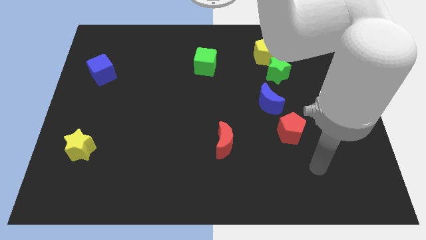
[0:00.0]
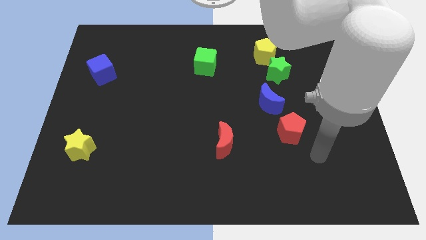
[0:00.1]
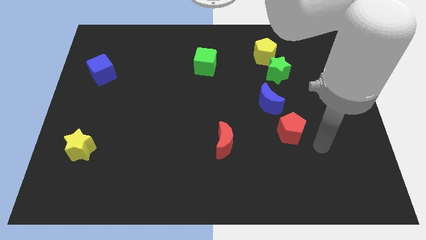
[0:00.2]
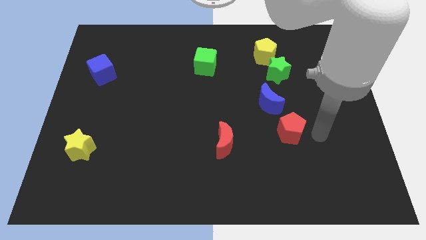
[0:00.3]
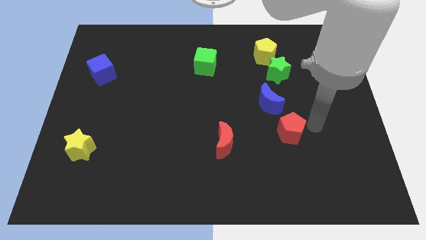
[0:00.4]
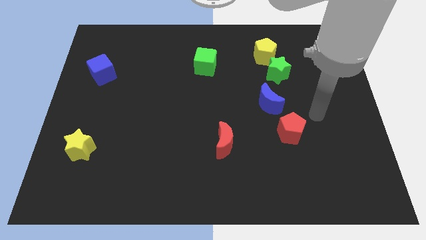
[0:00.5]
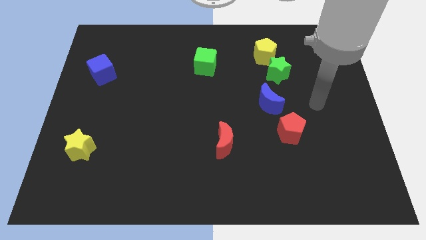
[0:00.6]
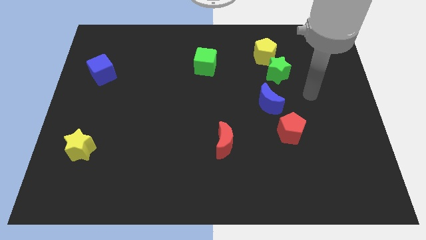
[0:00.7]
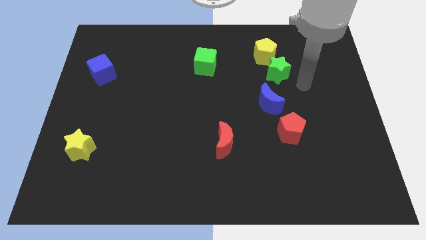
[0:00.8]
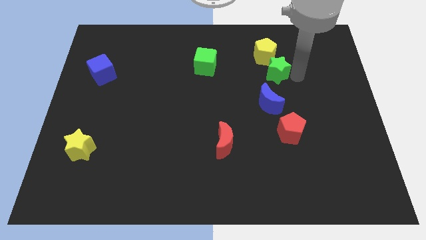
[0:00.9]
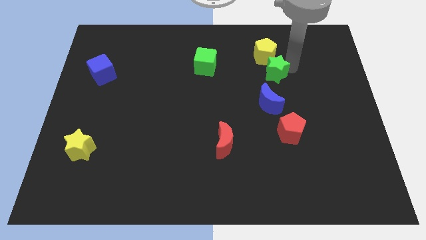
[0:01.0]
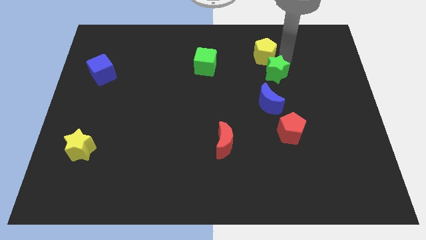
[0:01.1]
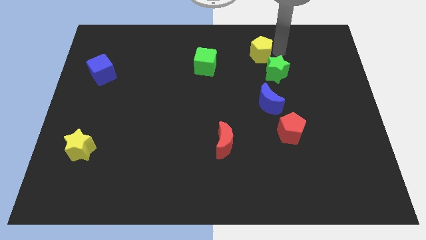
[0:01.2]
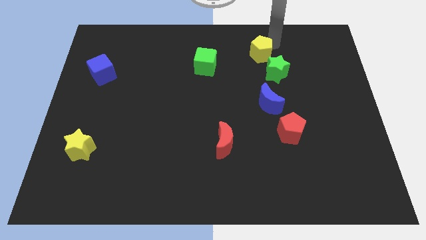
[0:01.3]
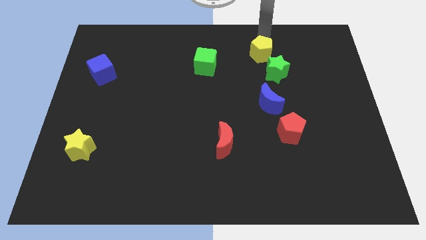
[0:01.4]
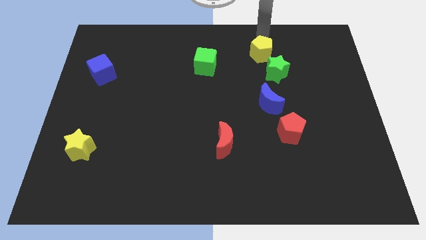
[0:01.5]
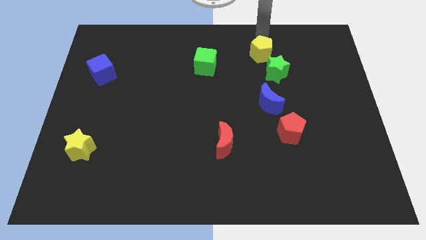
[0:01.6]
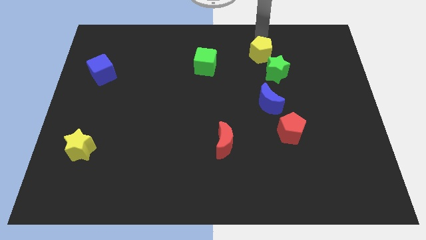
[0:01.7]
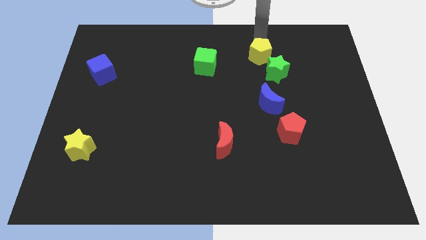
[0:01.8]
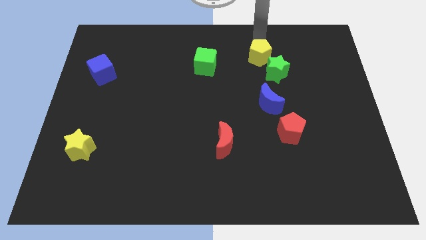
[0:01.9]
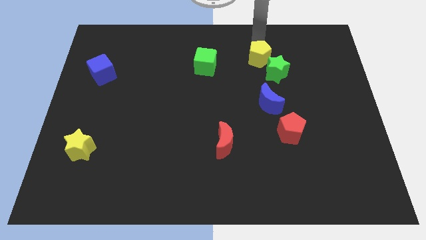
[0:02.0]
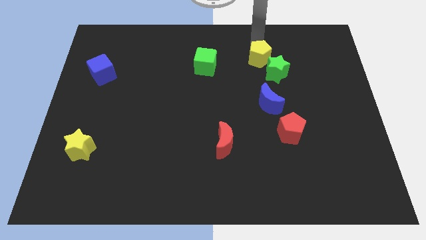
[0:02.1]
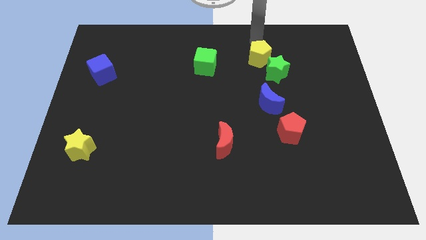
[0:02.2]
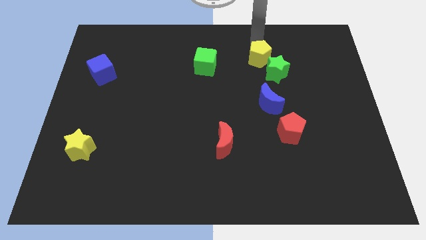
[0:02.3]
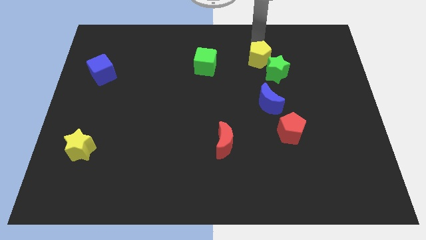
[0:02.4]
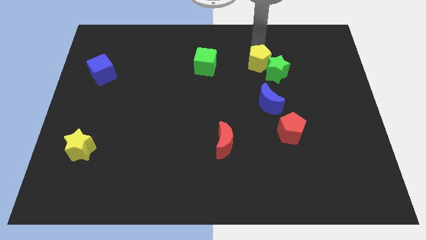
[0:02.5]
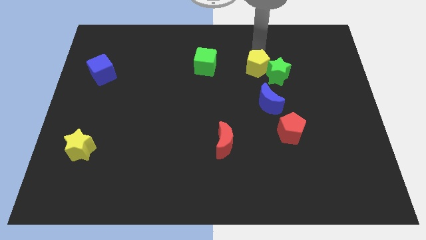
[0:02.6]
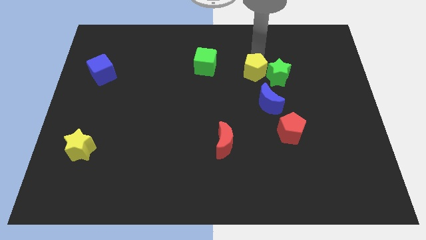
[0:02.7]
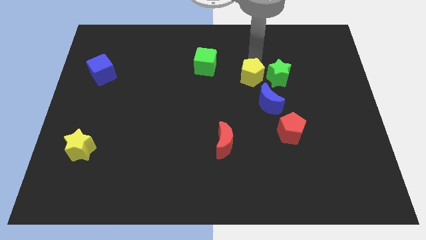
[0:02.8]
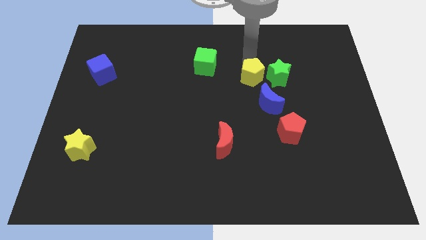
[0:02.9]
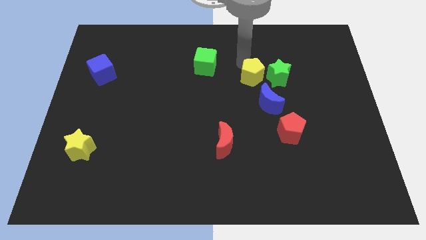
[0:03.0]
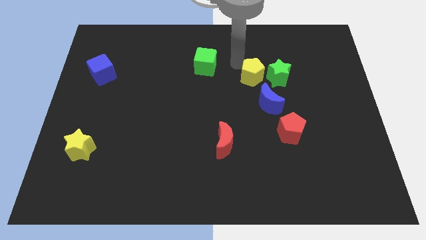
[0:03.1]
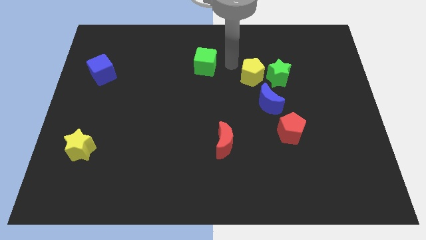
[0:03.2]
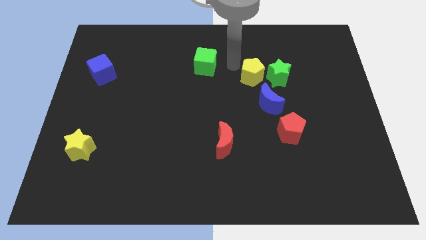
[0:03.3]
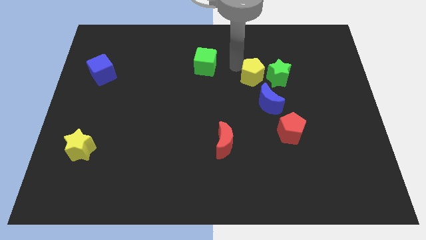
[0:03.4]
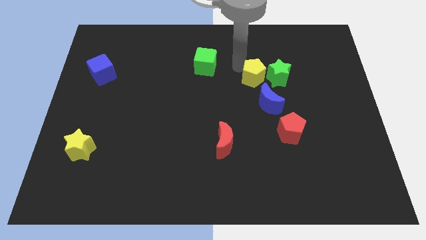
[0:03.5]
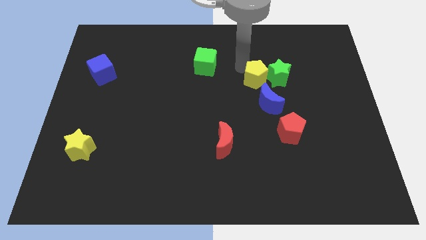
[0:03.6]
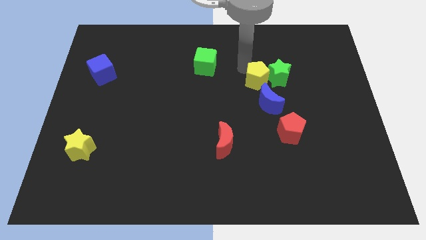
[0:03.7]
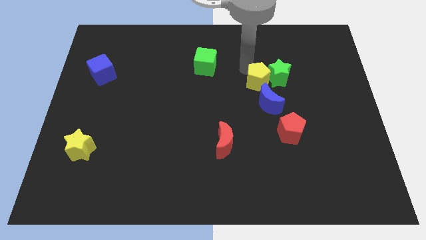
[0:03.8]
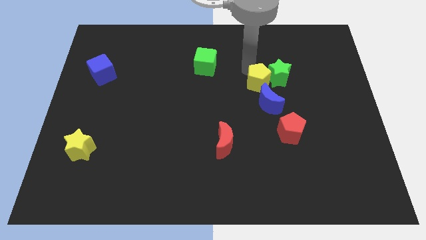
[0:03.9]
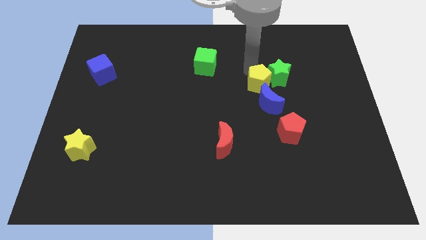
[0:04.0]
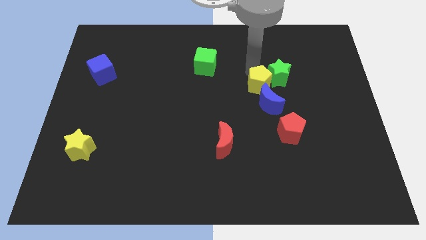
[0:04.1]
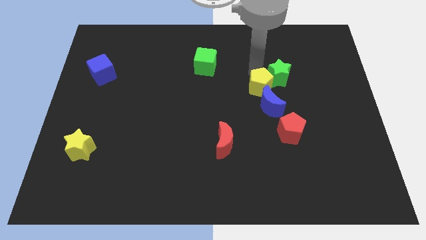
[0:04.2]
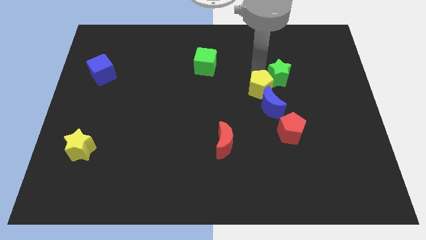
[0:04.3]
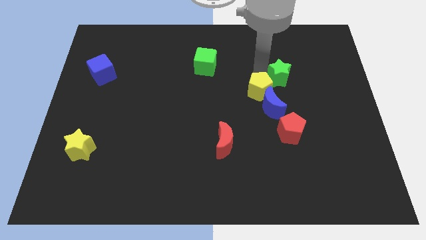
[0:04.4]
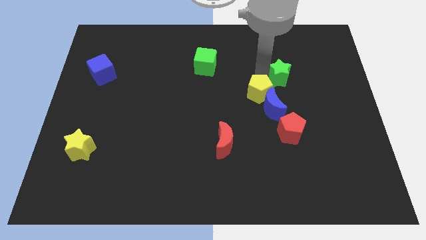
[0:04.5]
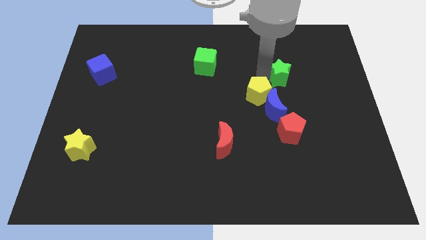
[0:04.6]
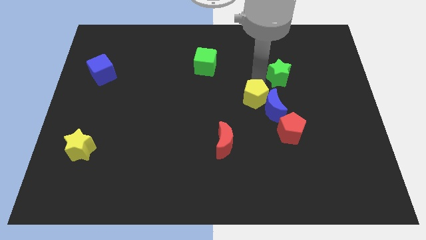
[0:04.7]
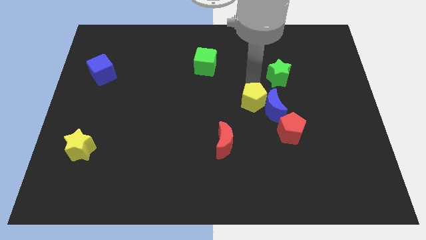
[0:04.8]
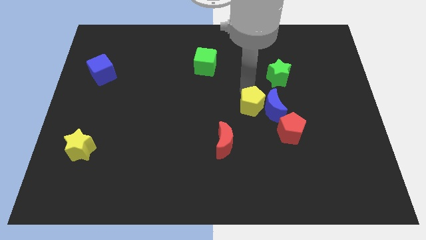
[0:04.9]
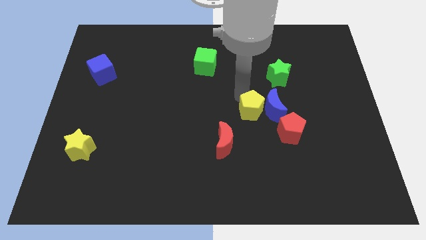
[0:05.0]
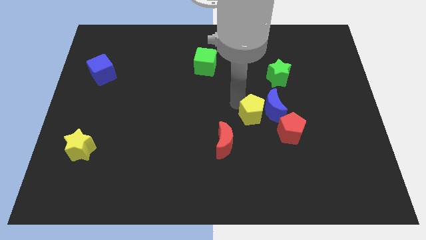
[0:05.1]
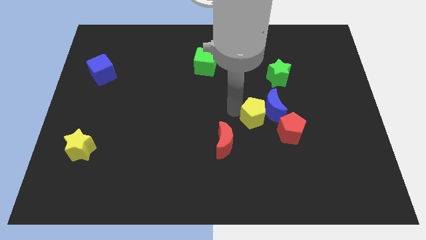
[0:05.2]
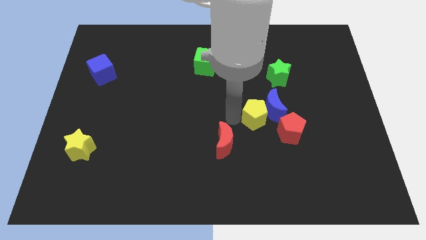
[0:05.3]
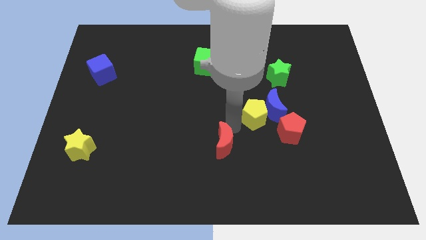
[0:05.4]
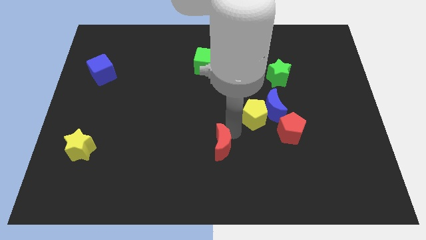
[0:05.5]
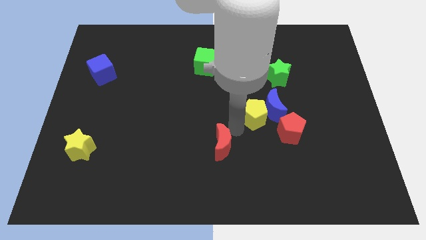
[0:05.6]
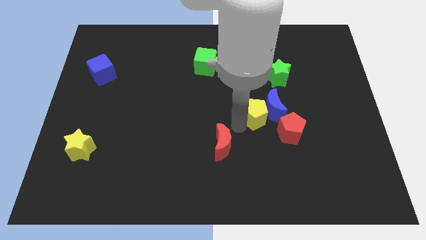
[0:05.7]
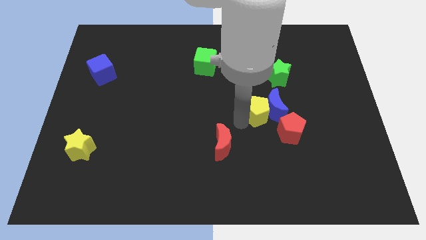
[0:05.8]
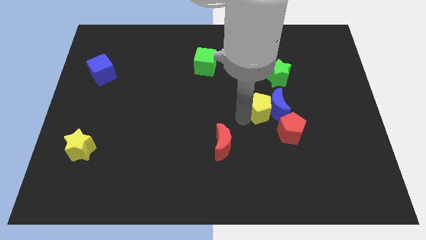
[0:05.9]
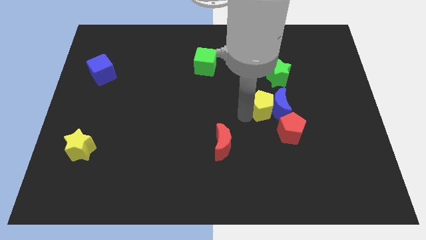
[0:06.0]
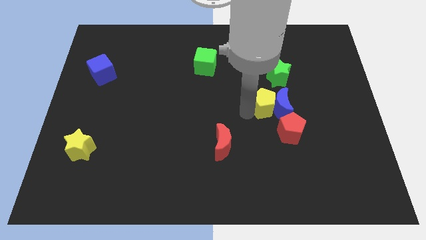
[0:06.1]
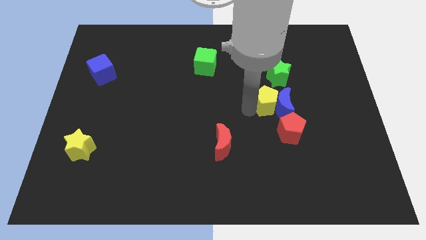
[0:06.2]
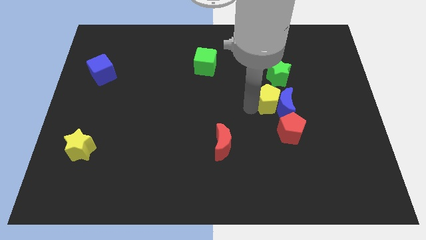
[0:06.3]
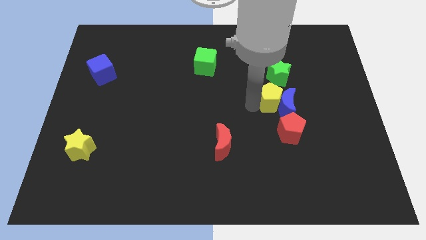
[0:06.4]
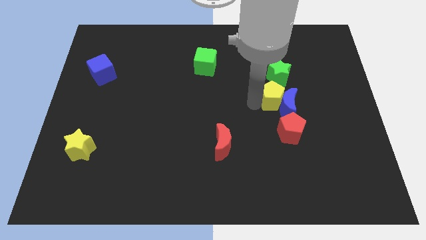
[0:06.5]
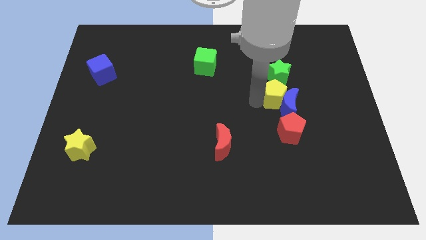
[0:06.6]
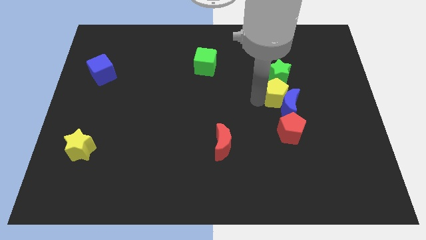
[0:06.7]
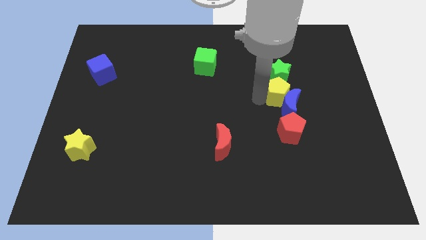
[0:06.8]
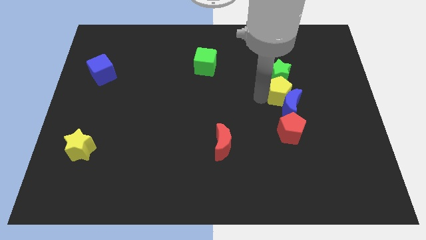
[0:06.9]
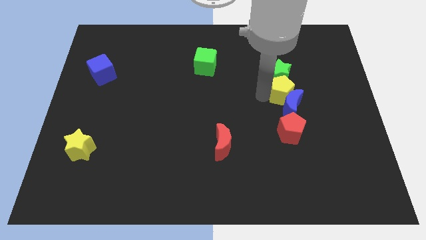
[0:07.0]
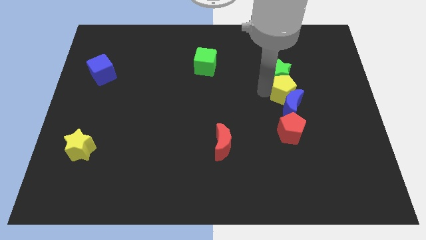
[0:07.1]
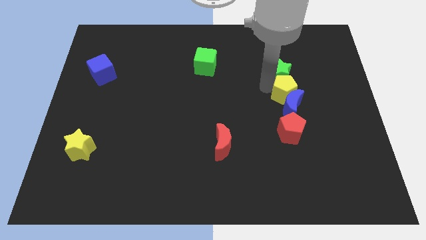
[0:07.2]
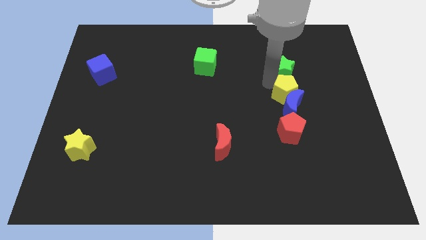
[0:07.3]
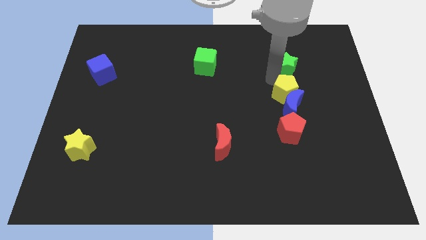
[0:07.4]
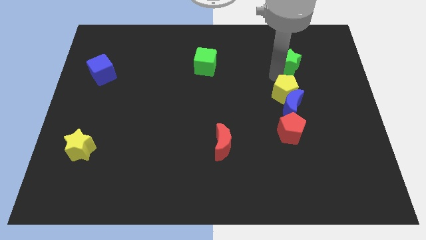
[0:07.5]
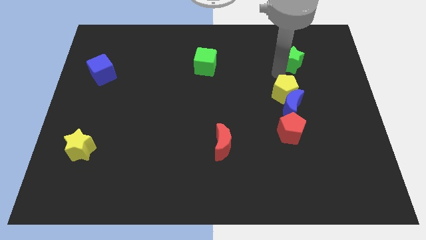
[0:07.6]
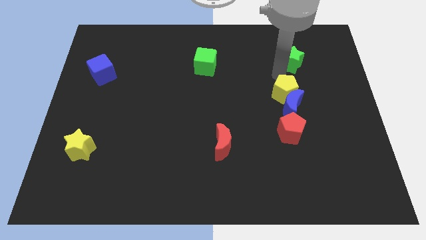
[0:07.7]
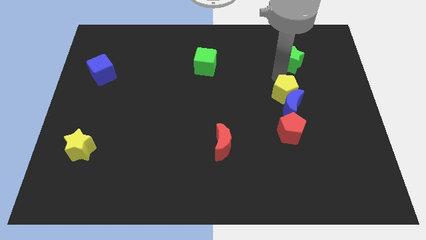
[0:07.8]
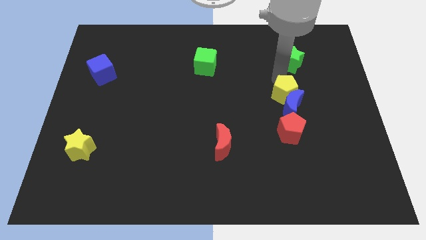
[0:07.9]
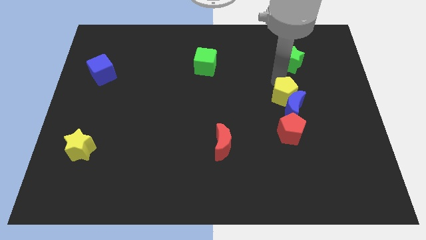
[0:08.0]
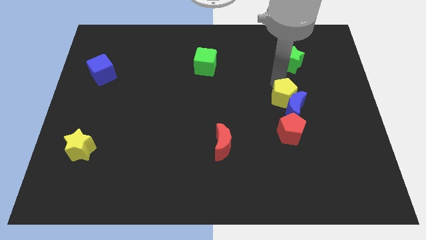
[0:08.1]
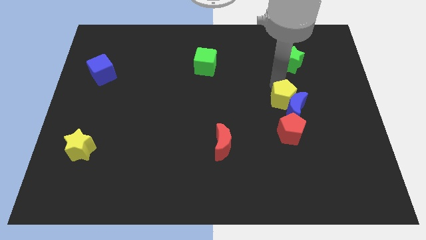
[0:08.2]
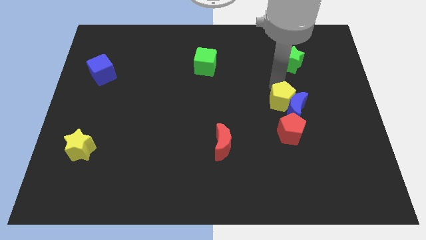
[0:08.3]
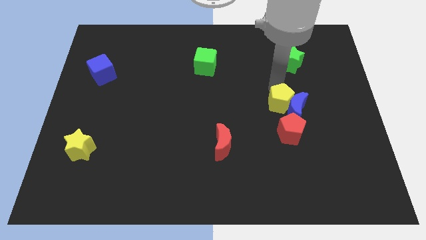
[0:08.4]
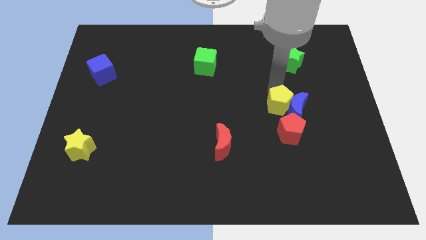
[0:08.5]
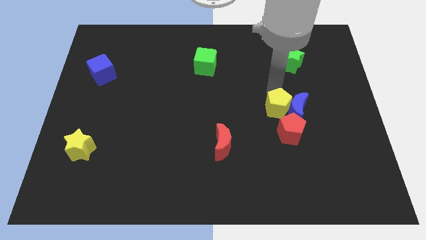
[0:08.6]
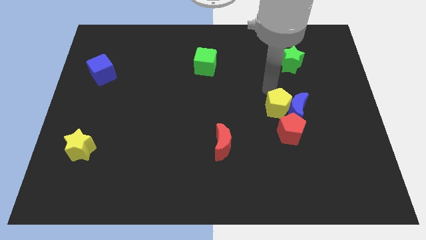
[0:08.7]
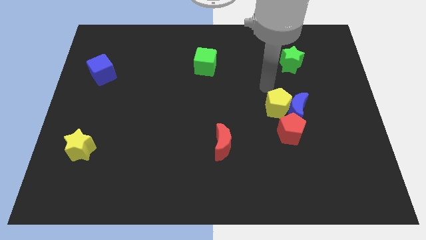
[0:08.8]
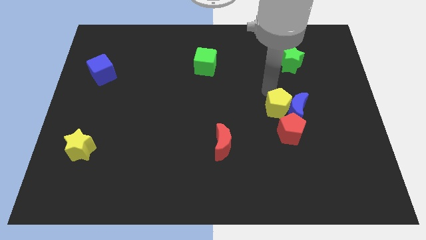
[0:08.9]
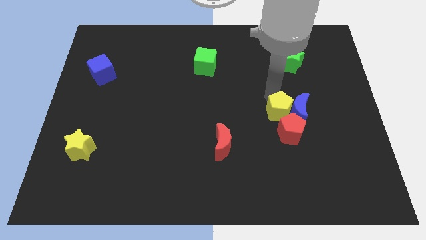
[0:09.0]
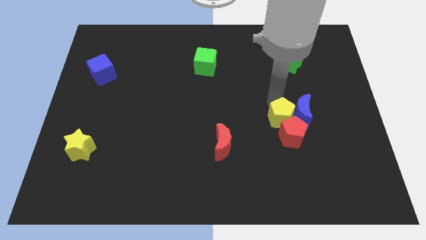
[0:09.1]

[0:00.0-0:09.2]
push the yellow pentagon close to the red pentagon
